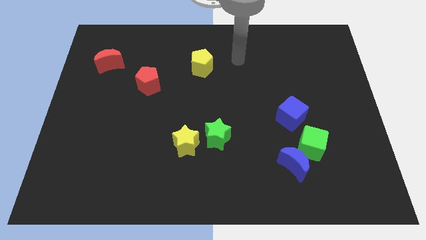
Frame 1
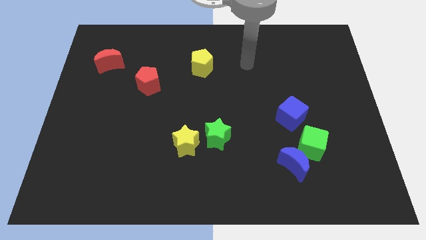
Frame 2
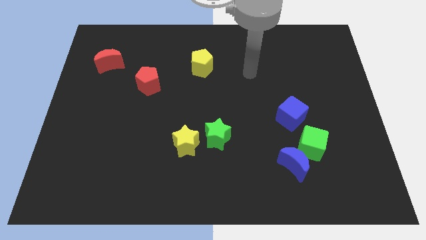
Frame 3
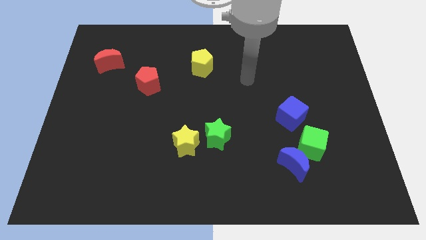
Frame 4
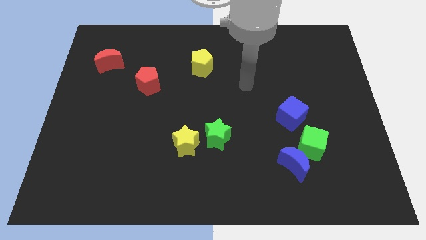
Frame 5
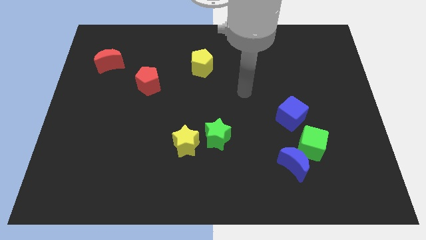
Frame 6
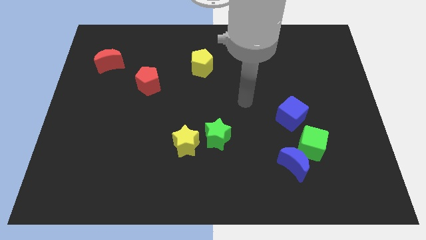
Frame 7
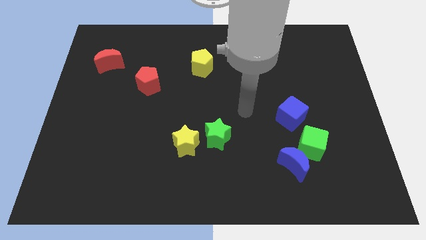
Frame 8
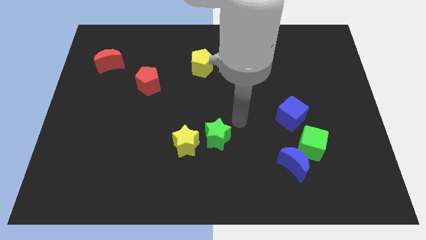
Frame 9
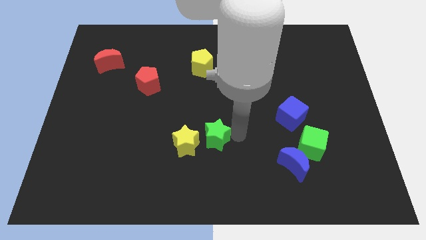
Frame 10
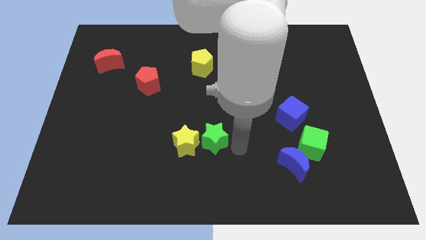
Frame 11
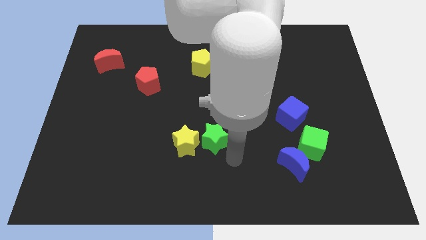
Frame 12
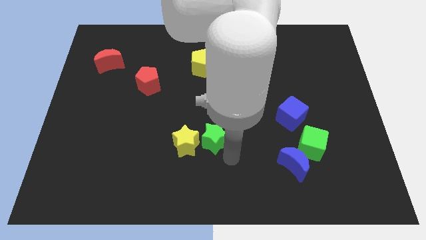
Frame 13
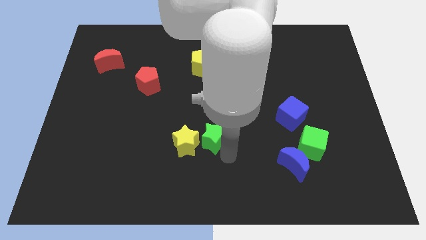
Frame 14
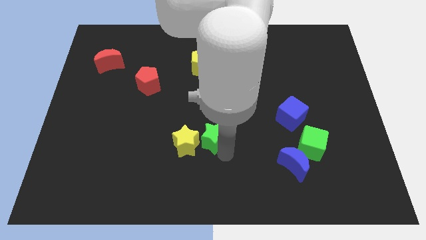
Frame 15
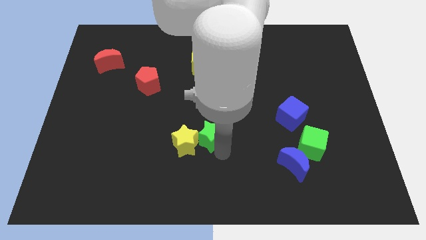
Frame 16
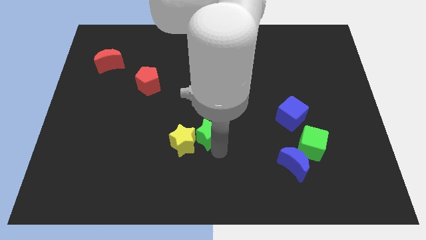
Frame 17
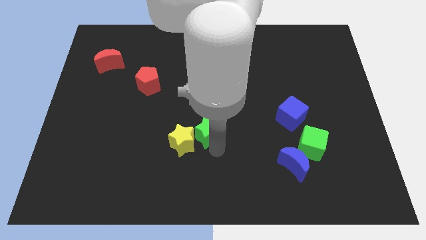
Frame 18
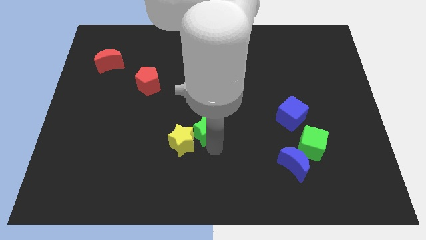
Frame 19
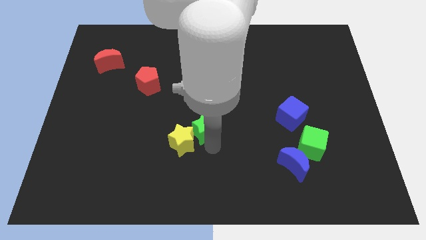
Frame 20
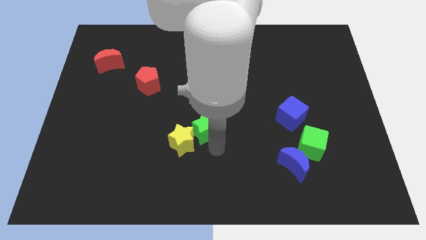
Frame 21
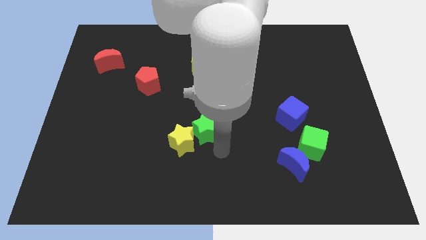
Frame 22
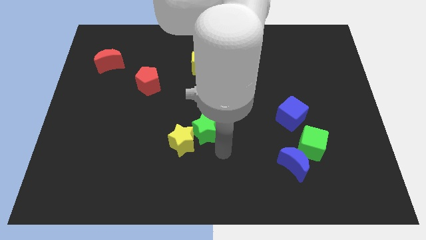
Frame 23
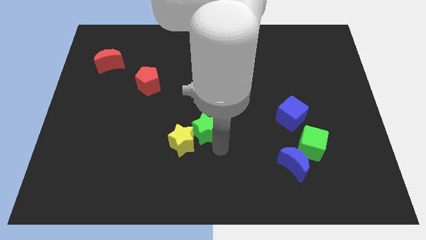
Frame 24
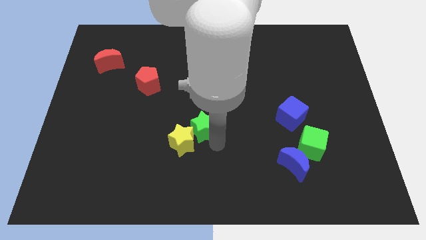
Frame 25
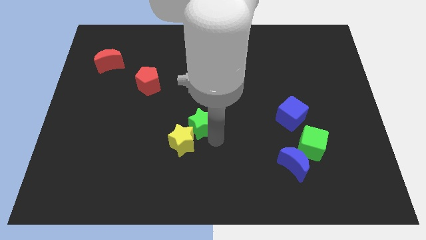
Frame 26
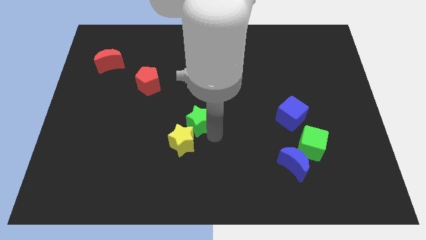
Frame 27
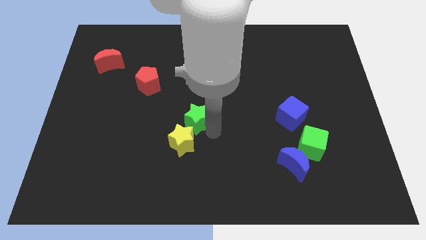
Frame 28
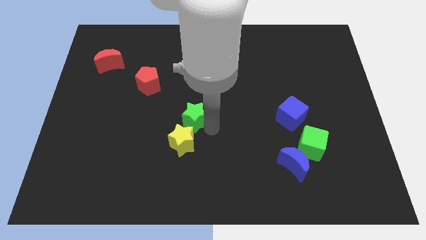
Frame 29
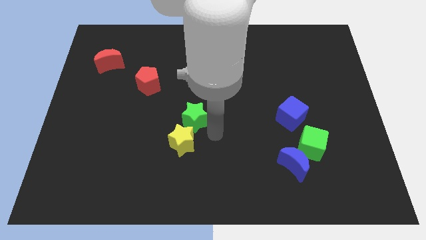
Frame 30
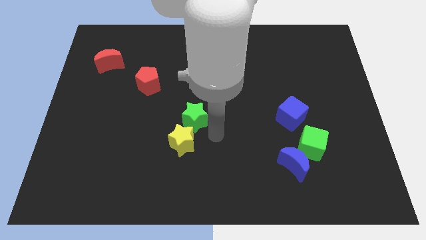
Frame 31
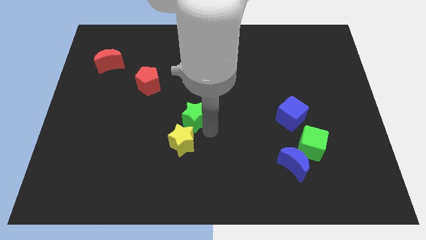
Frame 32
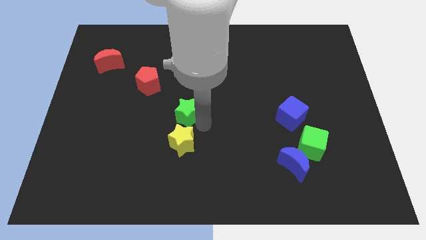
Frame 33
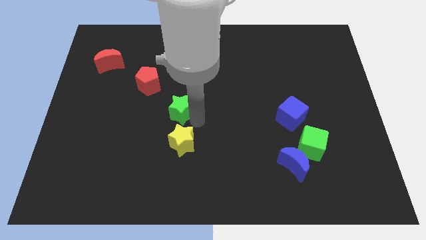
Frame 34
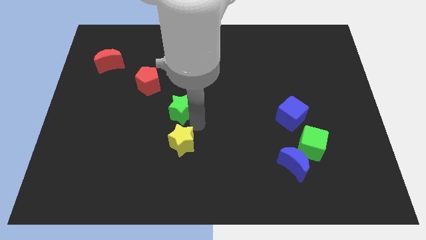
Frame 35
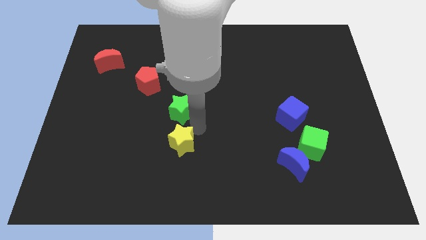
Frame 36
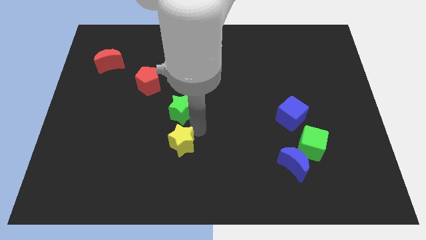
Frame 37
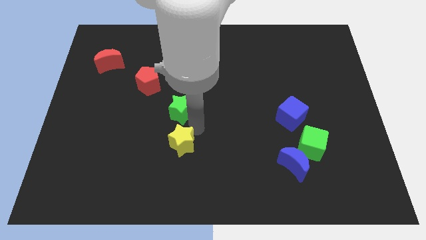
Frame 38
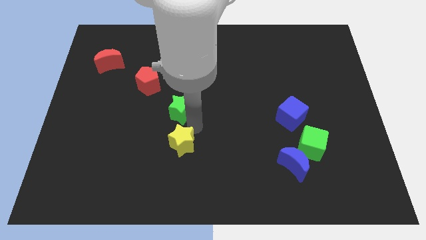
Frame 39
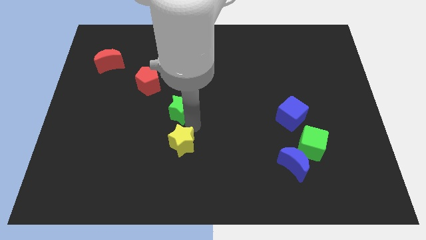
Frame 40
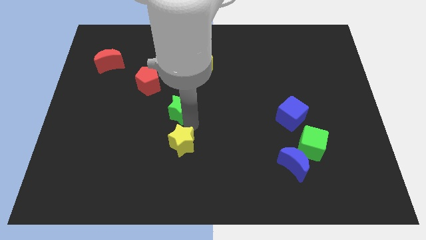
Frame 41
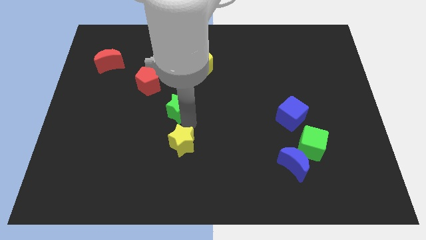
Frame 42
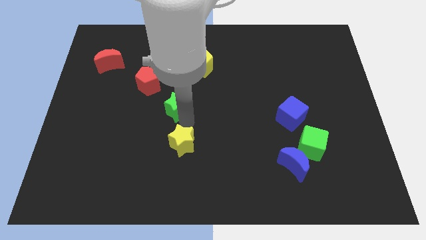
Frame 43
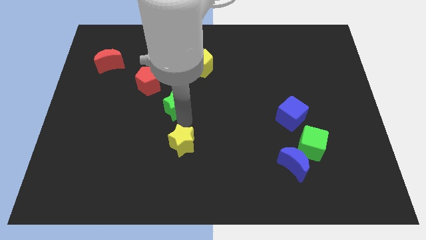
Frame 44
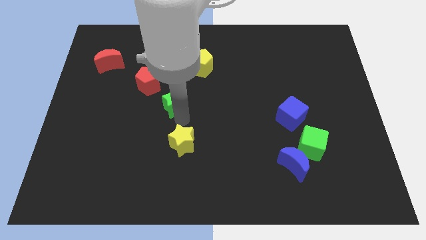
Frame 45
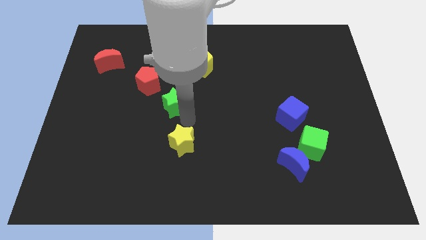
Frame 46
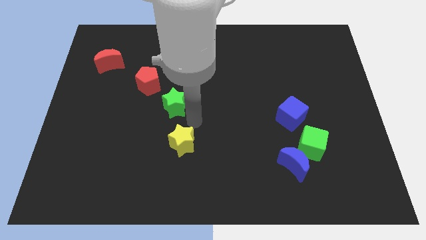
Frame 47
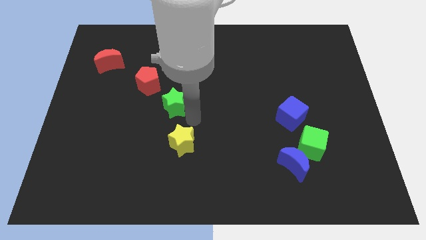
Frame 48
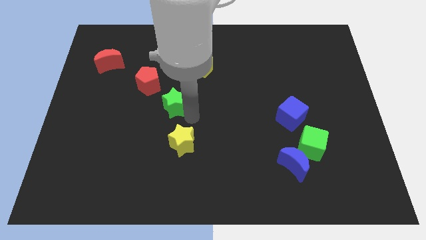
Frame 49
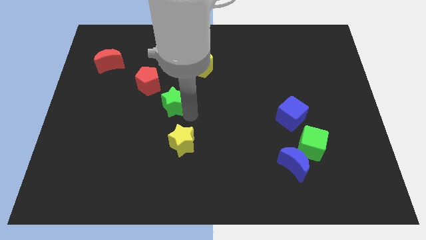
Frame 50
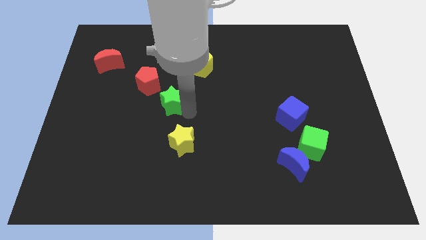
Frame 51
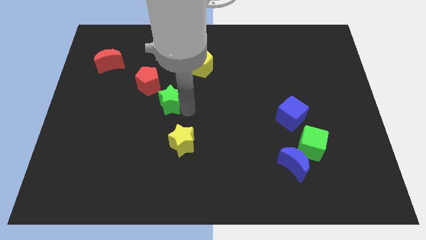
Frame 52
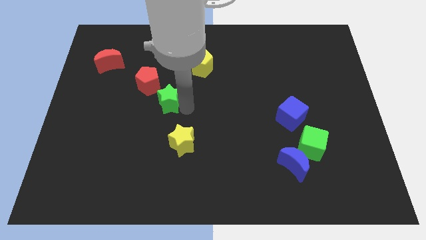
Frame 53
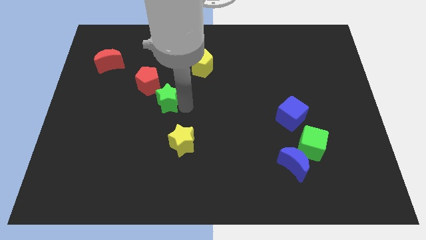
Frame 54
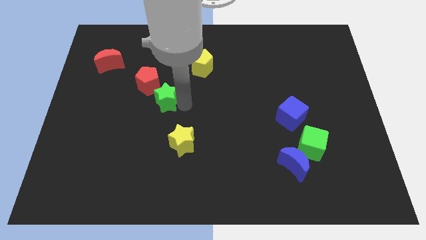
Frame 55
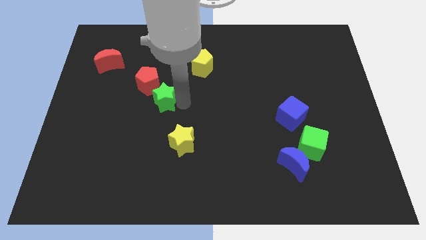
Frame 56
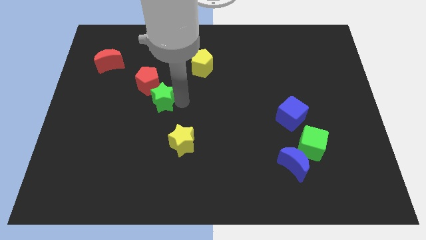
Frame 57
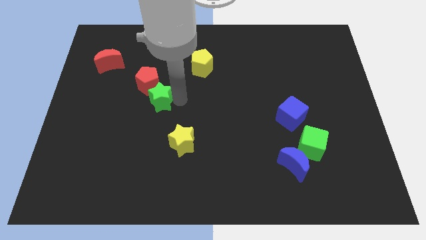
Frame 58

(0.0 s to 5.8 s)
slide the green star towards the red pentagon
